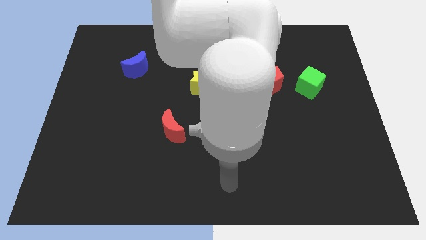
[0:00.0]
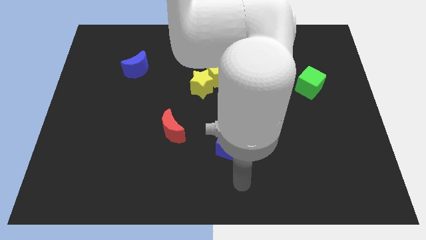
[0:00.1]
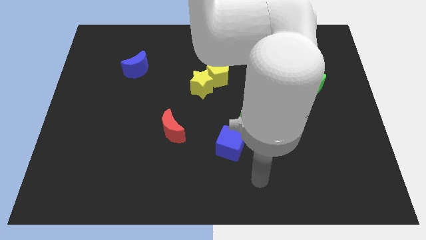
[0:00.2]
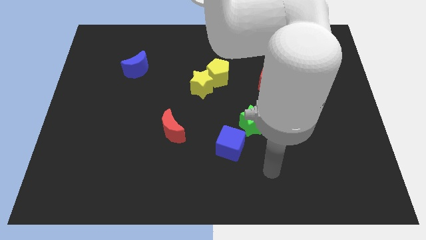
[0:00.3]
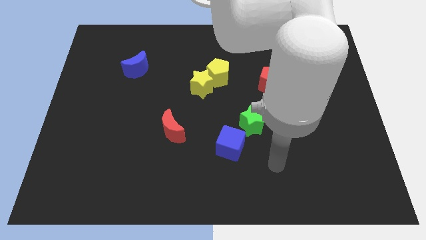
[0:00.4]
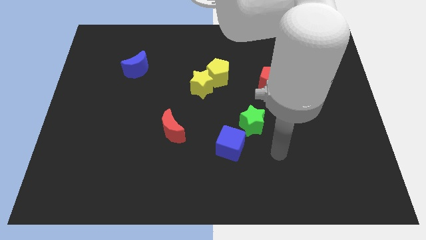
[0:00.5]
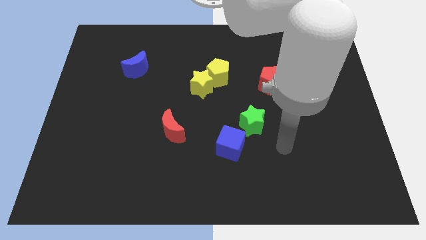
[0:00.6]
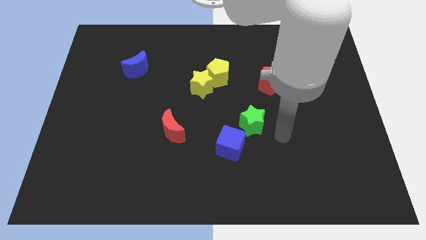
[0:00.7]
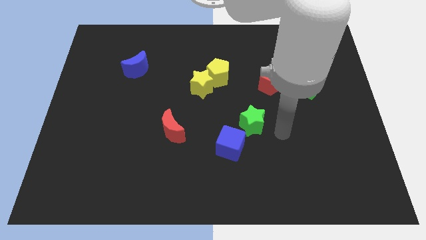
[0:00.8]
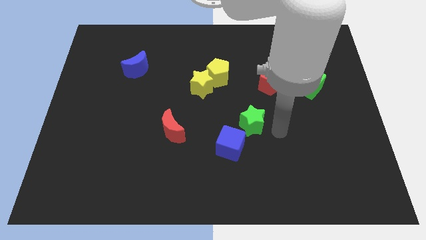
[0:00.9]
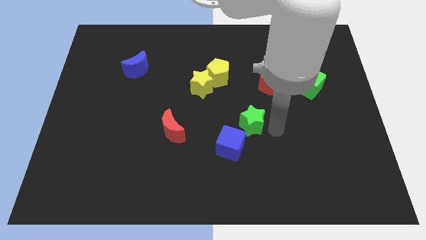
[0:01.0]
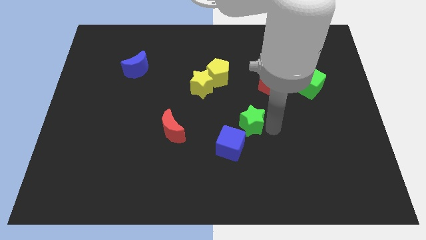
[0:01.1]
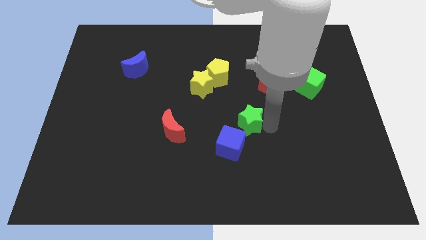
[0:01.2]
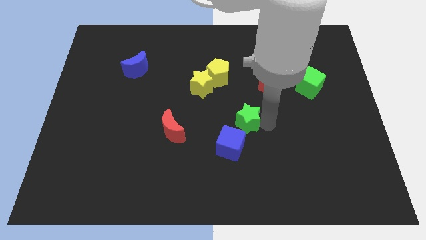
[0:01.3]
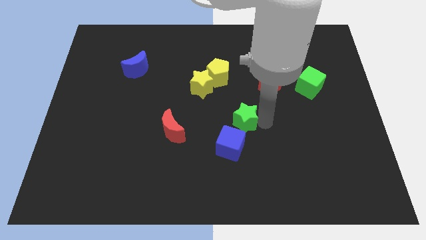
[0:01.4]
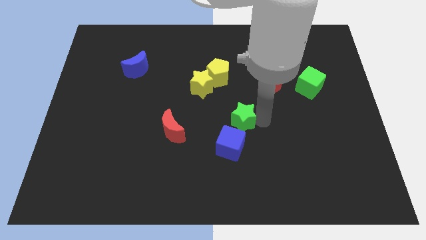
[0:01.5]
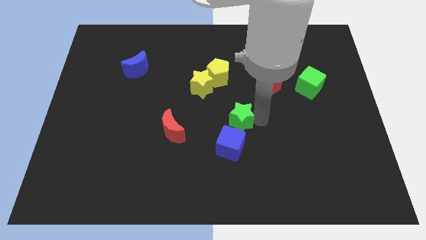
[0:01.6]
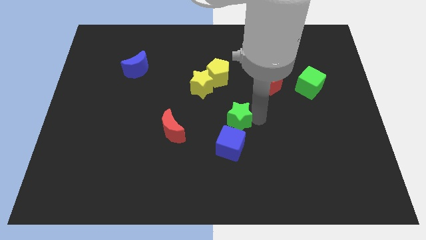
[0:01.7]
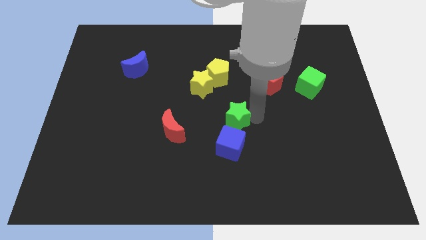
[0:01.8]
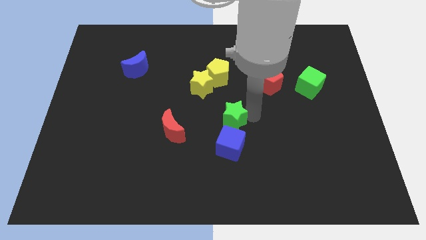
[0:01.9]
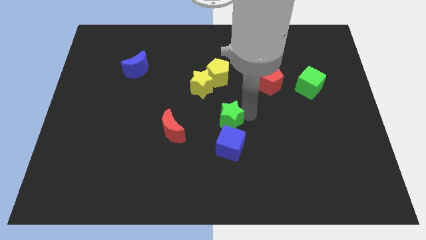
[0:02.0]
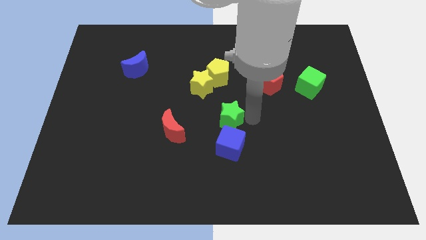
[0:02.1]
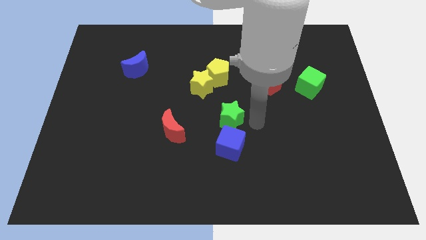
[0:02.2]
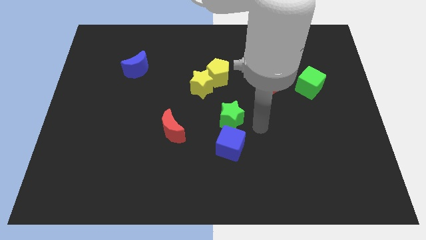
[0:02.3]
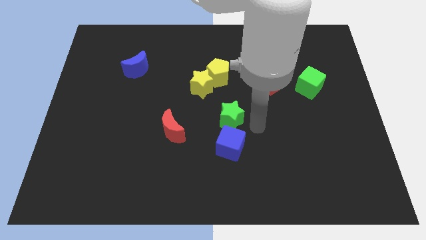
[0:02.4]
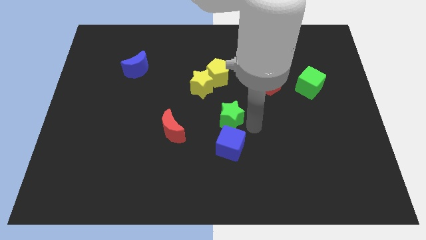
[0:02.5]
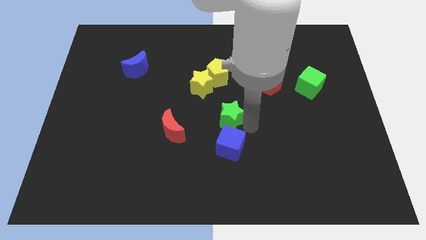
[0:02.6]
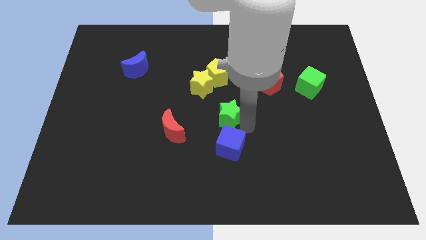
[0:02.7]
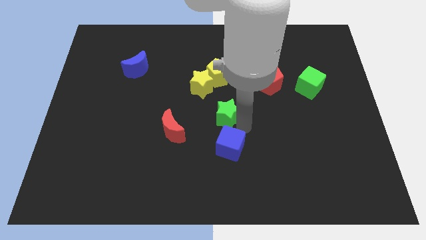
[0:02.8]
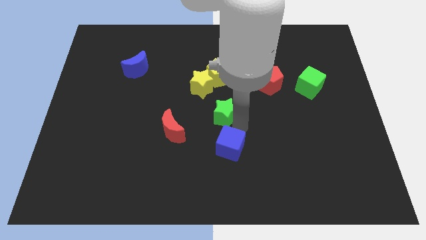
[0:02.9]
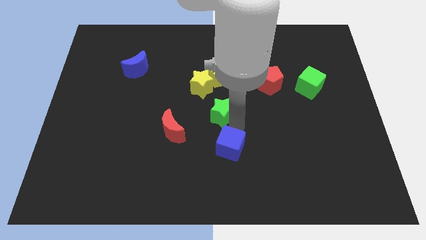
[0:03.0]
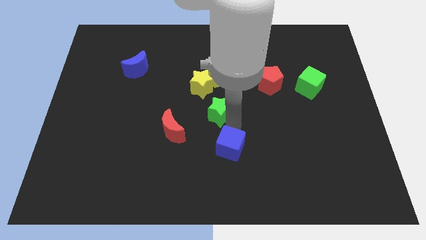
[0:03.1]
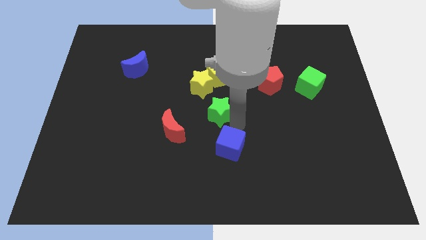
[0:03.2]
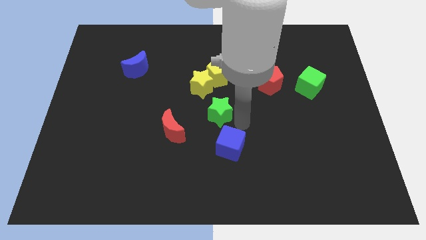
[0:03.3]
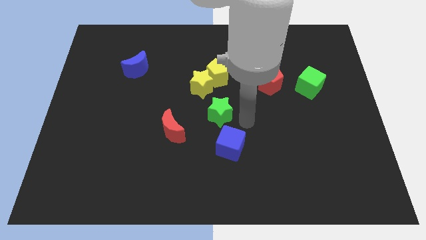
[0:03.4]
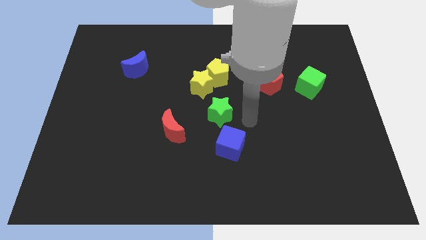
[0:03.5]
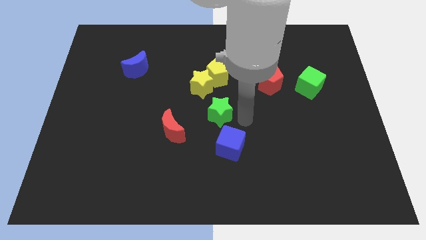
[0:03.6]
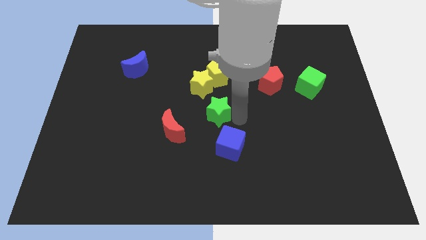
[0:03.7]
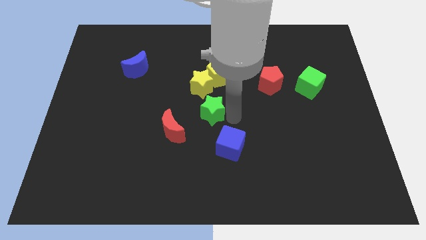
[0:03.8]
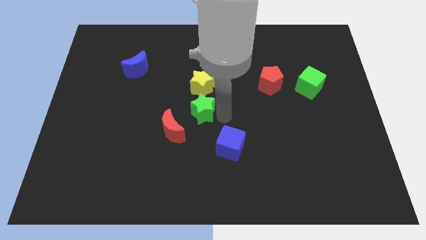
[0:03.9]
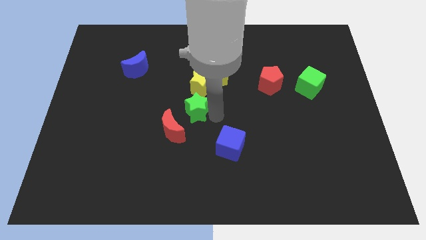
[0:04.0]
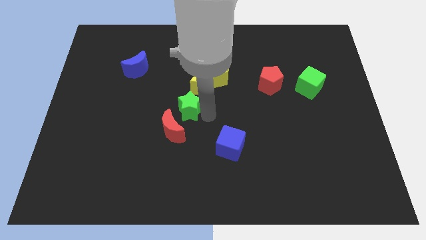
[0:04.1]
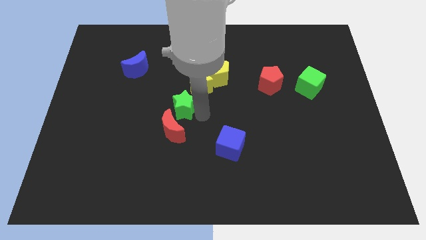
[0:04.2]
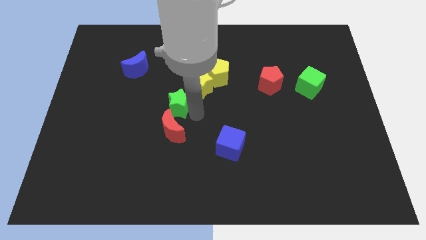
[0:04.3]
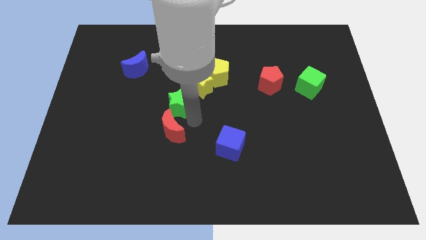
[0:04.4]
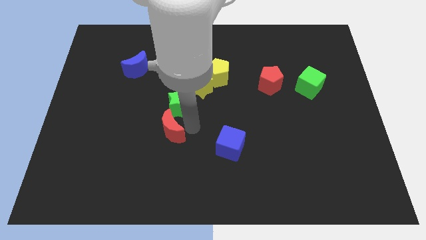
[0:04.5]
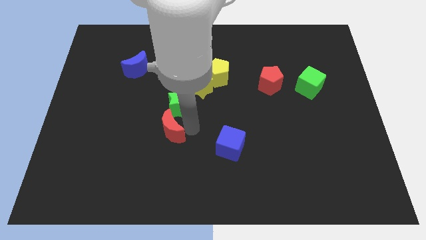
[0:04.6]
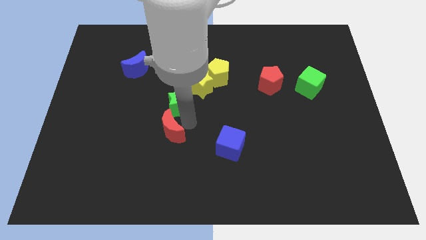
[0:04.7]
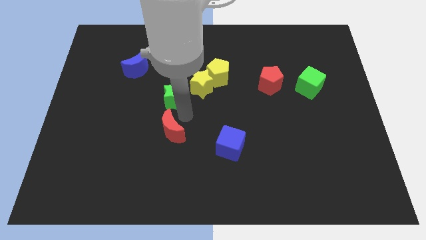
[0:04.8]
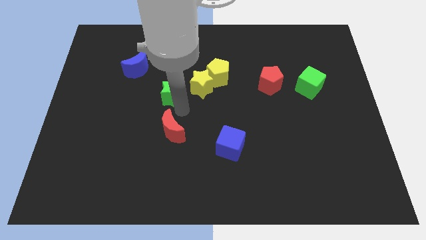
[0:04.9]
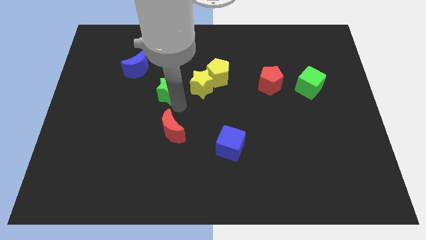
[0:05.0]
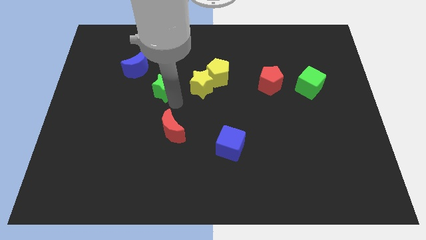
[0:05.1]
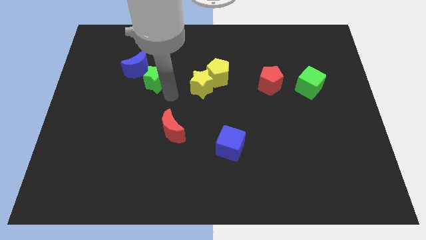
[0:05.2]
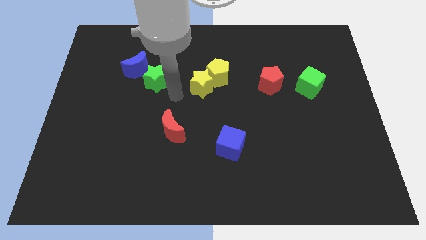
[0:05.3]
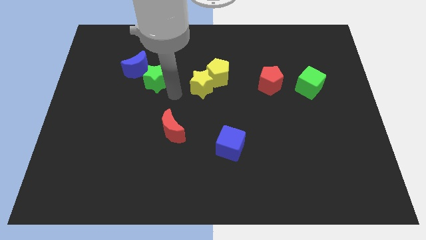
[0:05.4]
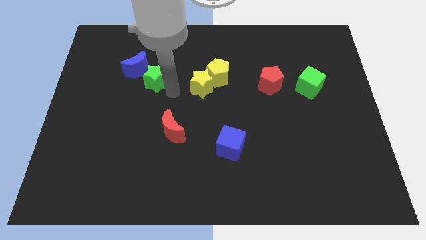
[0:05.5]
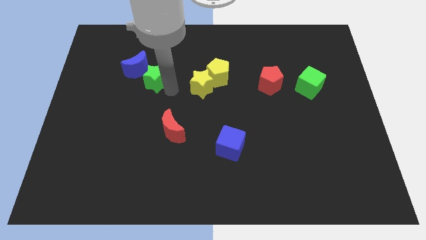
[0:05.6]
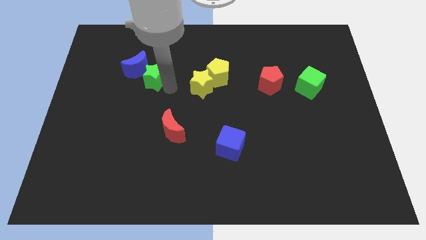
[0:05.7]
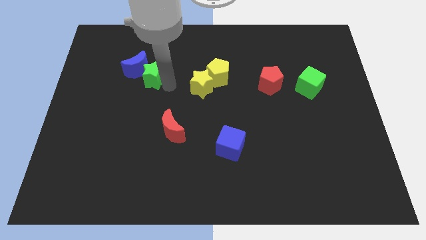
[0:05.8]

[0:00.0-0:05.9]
put the green star close to the blue moon

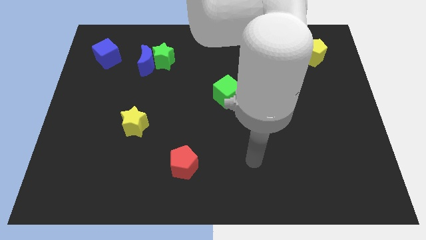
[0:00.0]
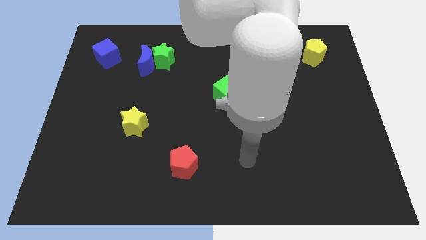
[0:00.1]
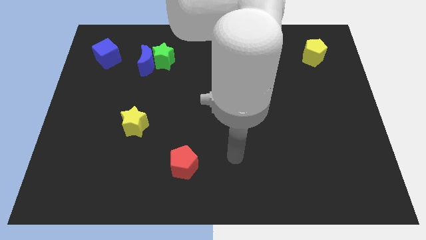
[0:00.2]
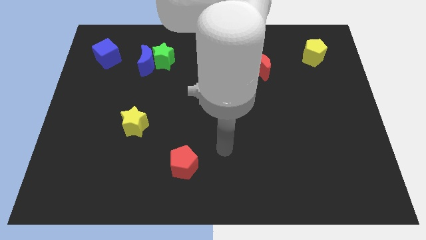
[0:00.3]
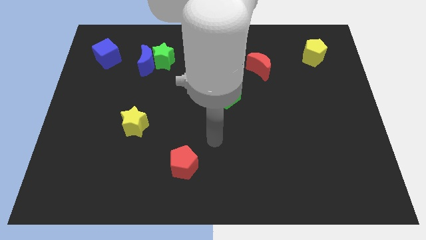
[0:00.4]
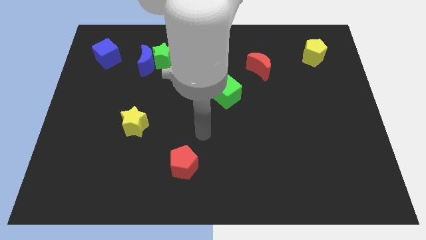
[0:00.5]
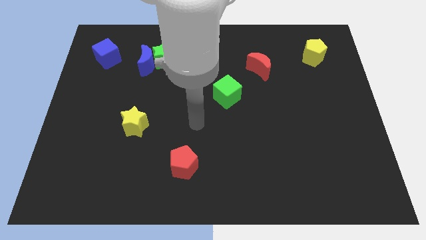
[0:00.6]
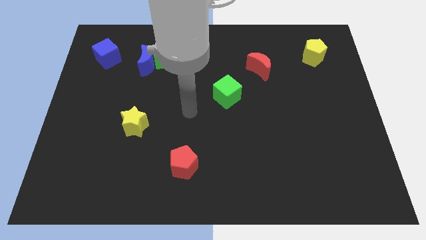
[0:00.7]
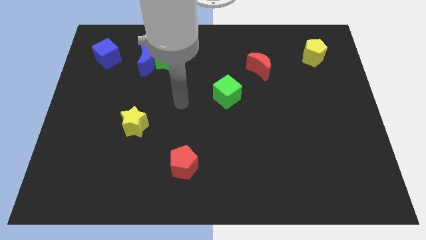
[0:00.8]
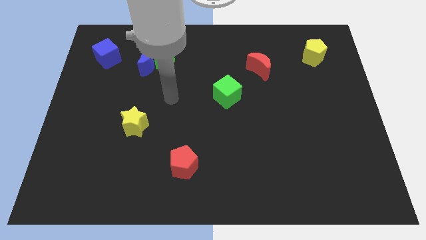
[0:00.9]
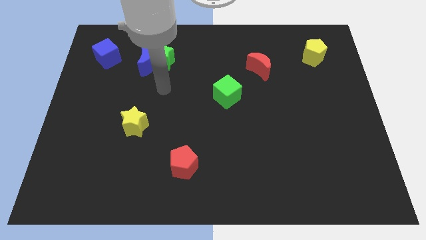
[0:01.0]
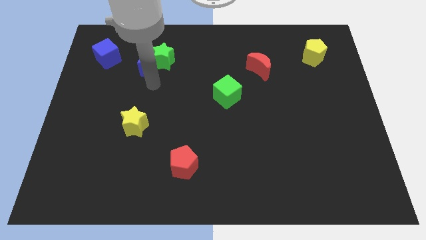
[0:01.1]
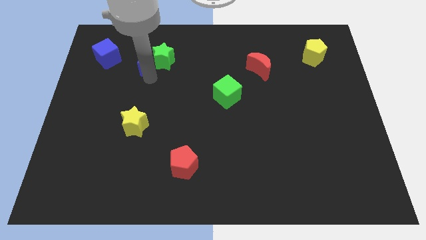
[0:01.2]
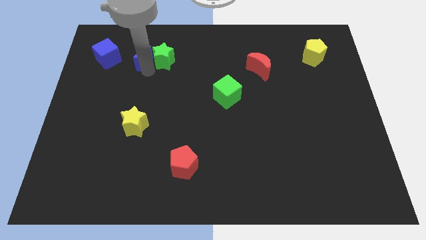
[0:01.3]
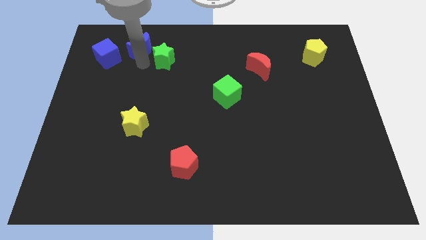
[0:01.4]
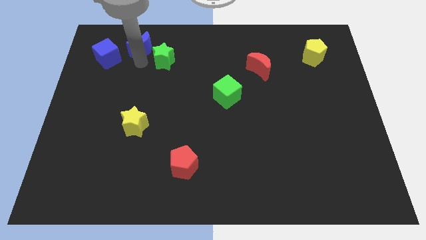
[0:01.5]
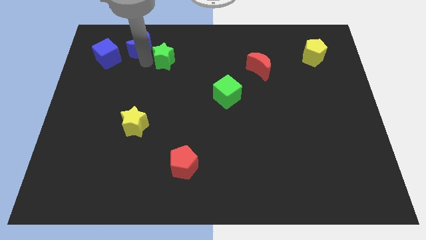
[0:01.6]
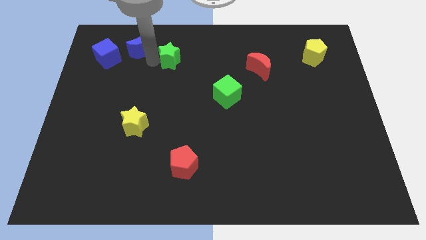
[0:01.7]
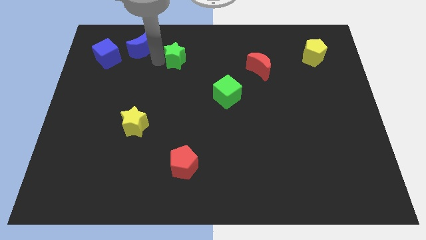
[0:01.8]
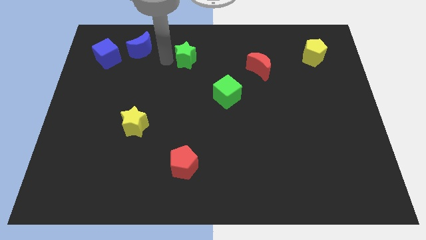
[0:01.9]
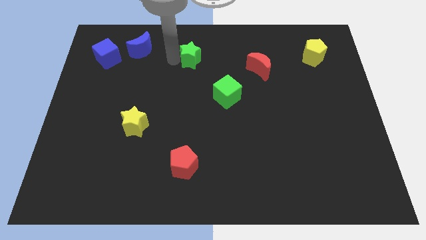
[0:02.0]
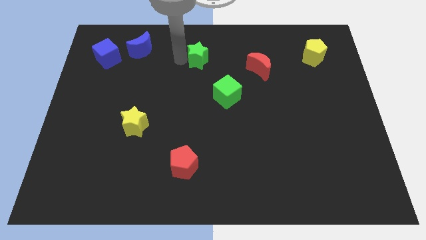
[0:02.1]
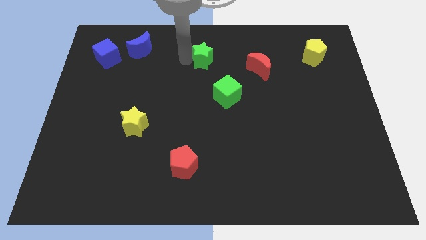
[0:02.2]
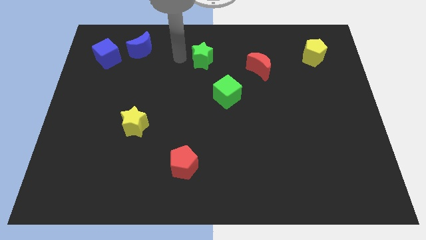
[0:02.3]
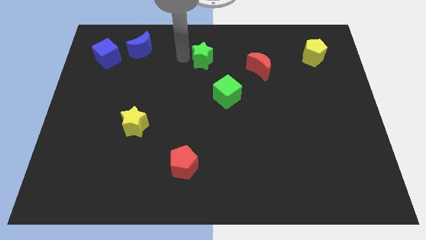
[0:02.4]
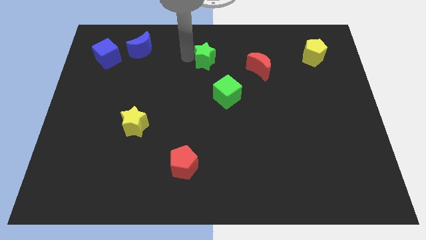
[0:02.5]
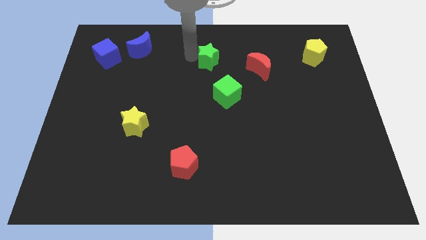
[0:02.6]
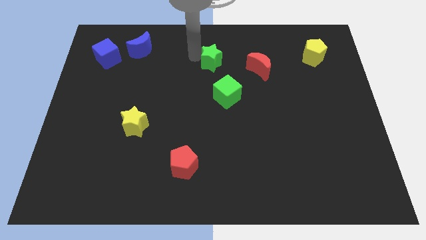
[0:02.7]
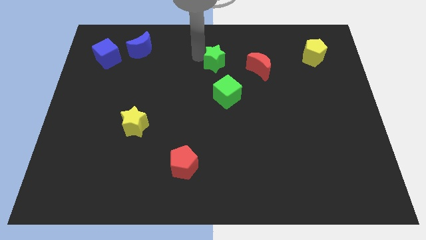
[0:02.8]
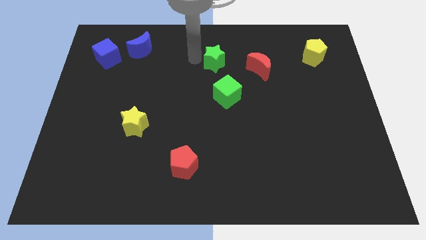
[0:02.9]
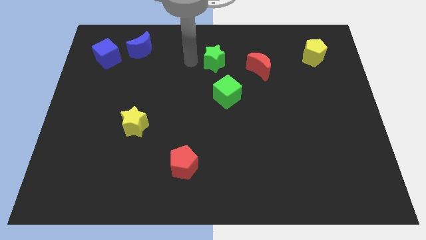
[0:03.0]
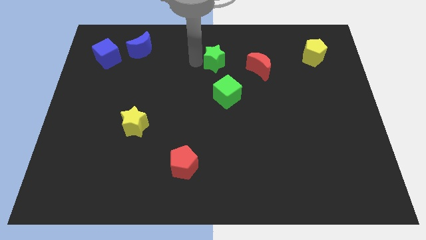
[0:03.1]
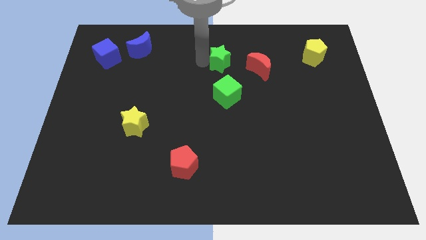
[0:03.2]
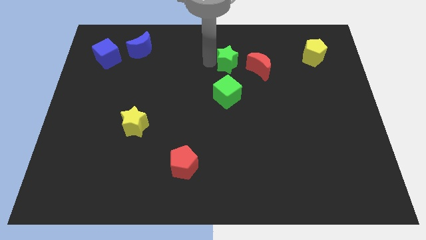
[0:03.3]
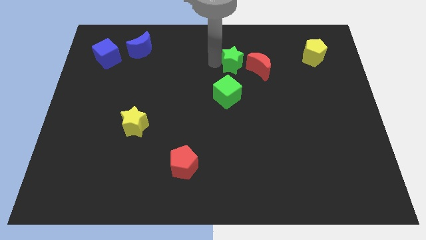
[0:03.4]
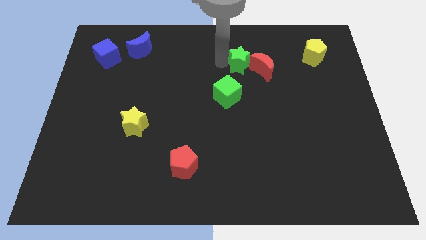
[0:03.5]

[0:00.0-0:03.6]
push the green star to the red moon
